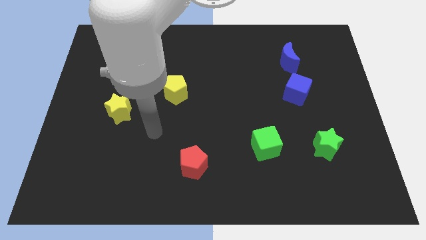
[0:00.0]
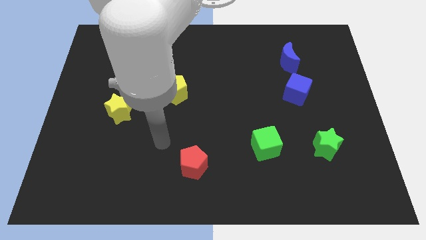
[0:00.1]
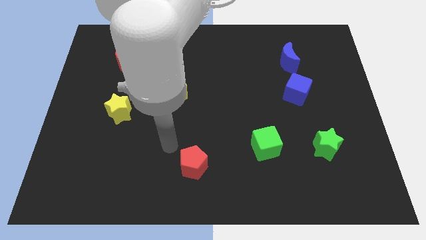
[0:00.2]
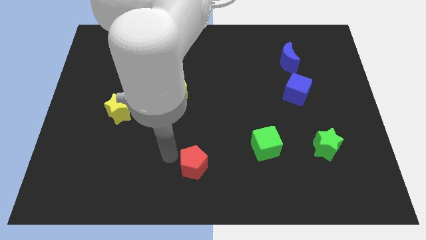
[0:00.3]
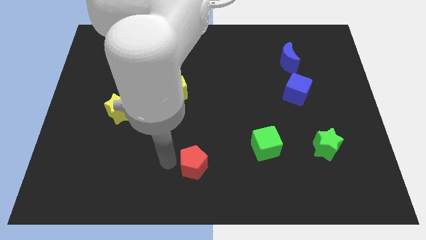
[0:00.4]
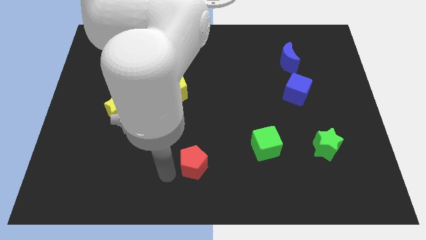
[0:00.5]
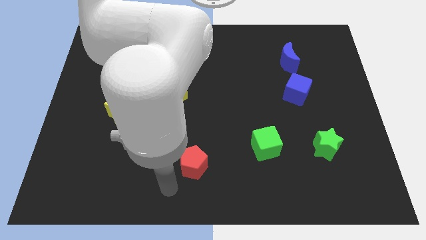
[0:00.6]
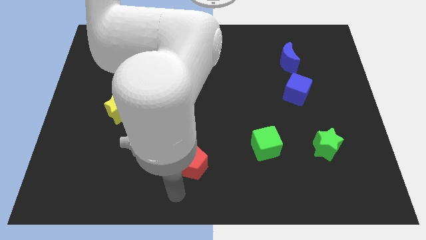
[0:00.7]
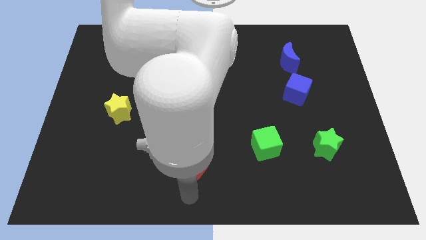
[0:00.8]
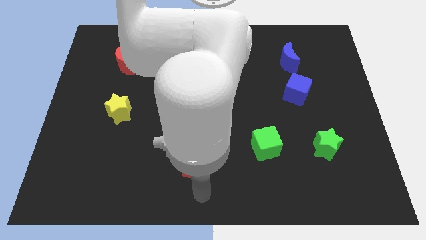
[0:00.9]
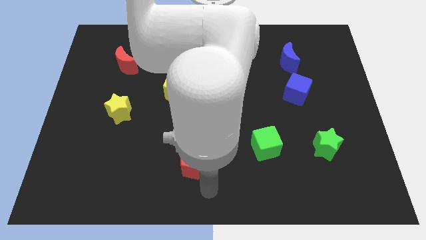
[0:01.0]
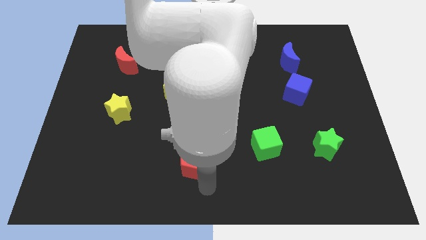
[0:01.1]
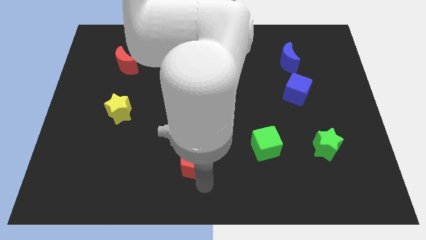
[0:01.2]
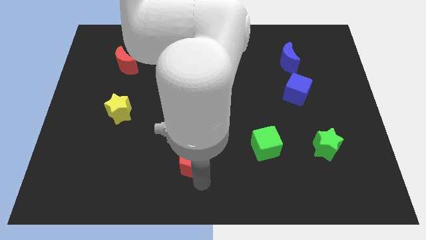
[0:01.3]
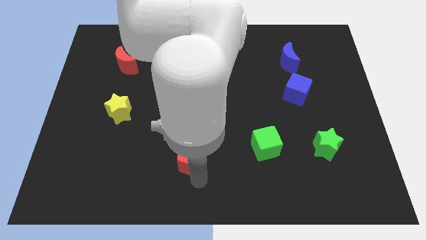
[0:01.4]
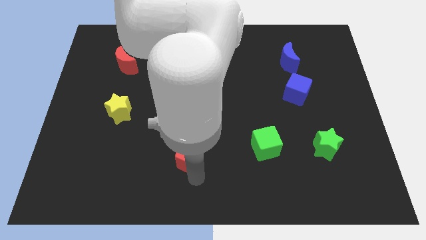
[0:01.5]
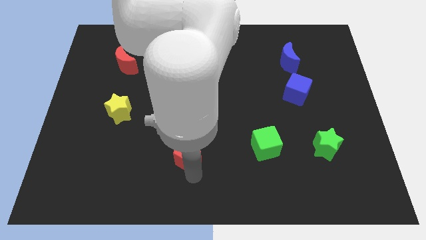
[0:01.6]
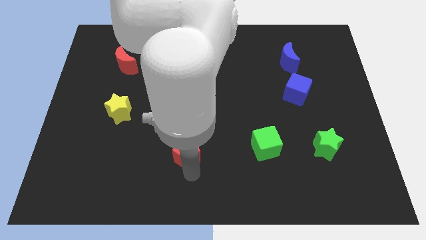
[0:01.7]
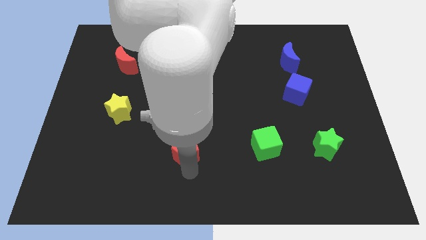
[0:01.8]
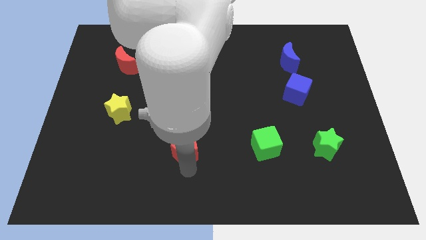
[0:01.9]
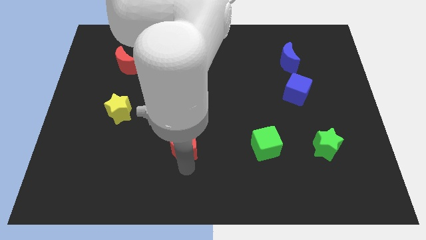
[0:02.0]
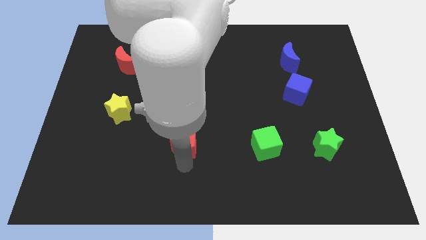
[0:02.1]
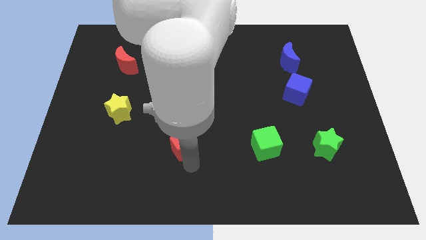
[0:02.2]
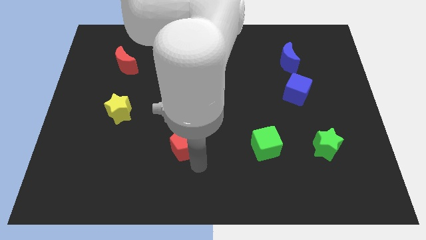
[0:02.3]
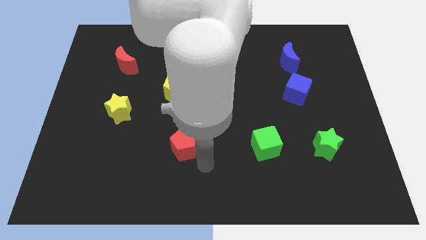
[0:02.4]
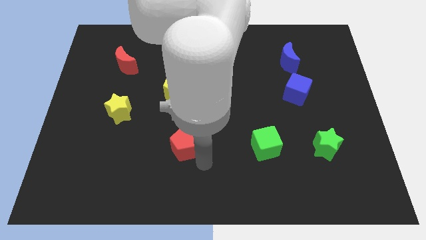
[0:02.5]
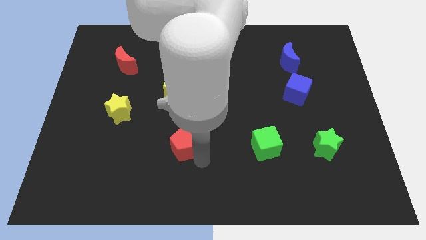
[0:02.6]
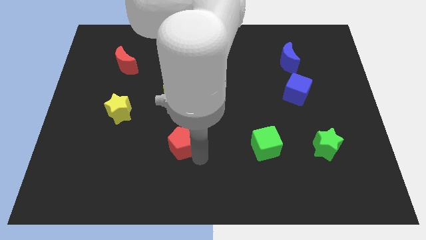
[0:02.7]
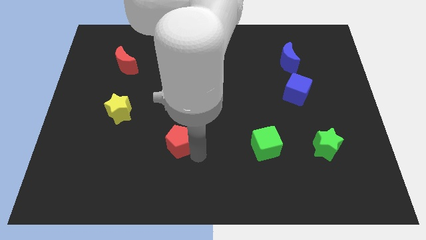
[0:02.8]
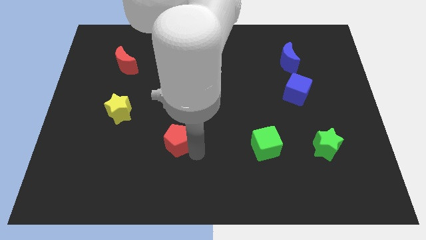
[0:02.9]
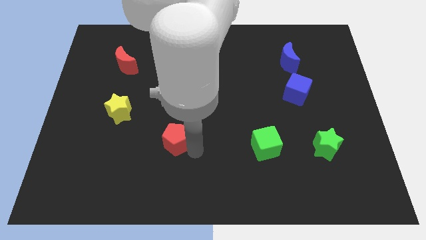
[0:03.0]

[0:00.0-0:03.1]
move the red pentagon upwards and left somewhat

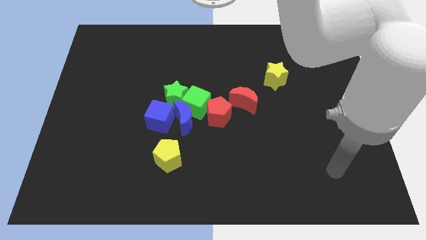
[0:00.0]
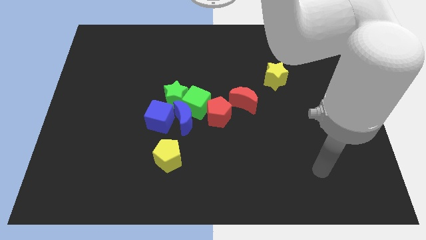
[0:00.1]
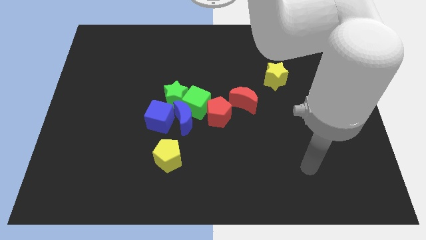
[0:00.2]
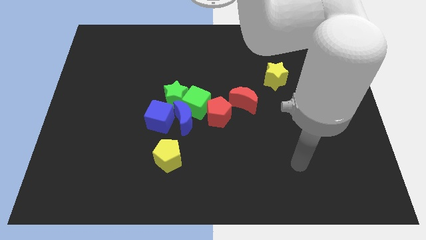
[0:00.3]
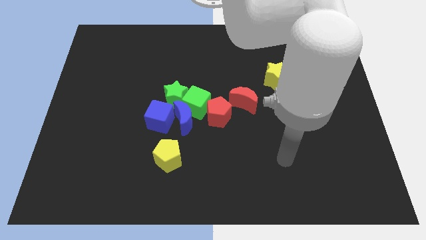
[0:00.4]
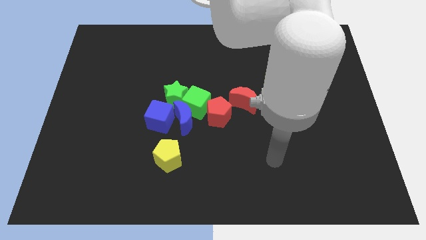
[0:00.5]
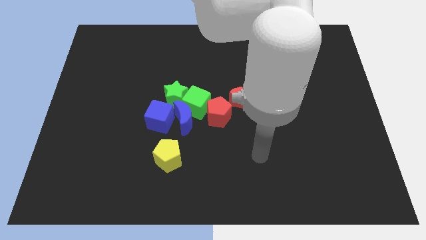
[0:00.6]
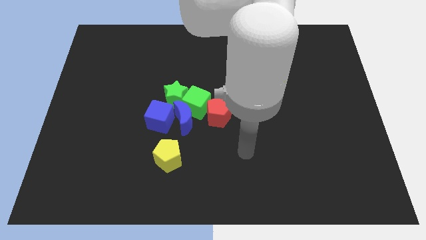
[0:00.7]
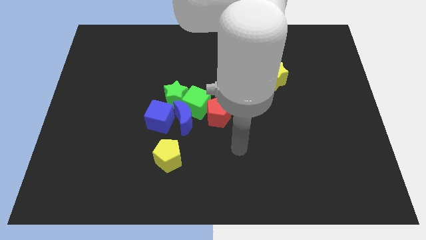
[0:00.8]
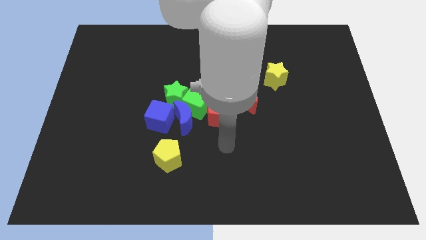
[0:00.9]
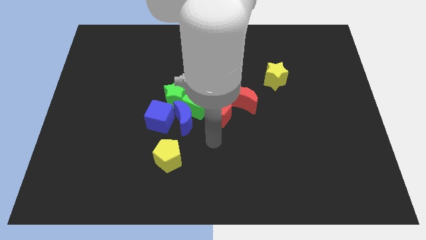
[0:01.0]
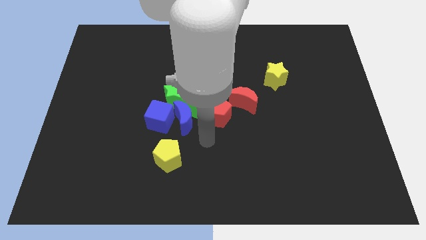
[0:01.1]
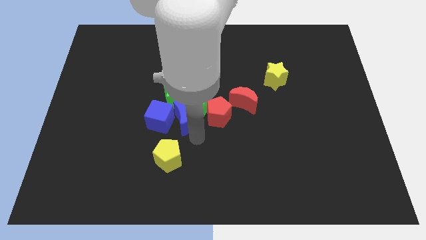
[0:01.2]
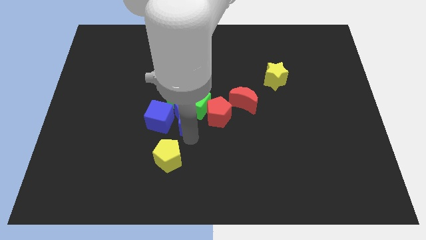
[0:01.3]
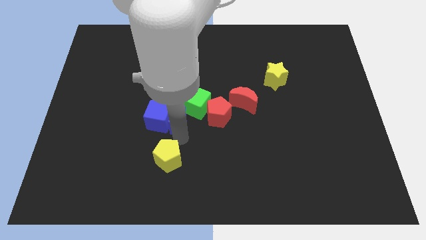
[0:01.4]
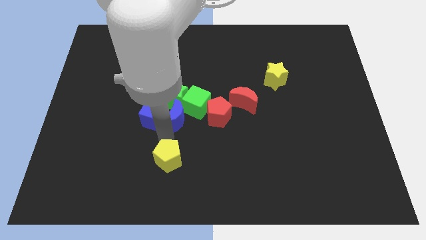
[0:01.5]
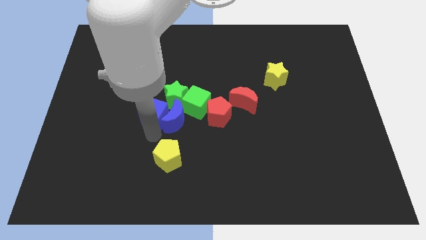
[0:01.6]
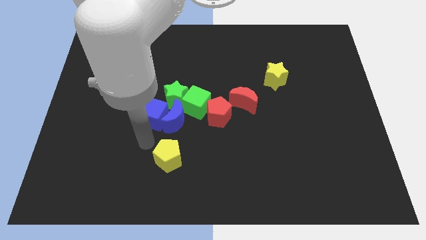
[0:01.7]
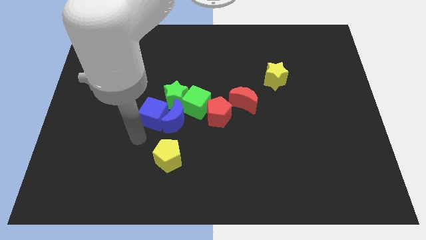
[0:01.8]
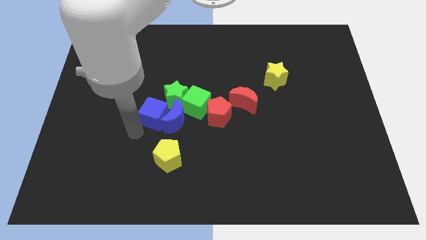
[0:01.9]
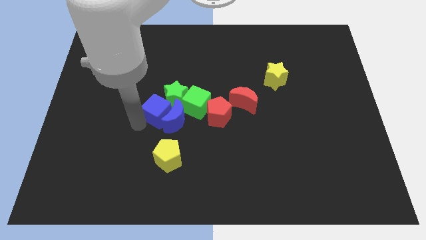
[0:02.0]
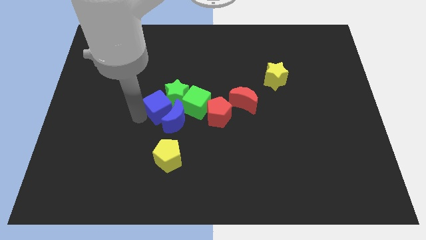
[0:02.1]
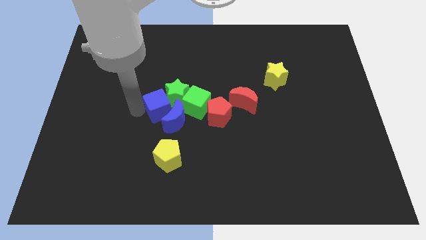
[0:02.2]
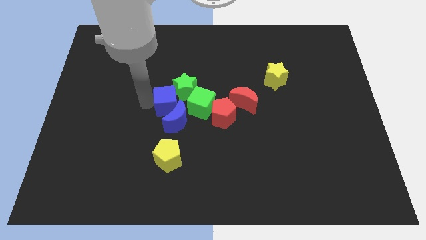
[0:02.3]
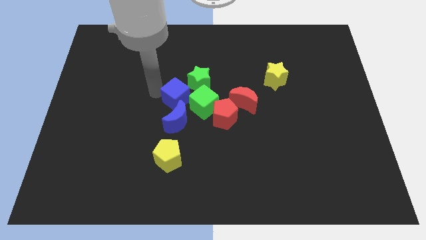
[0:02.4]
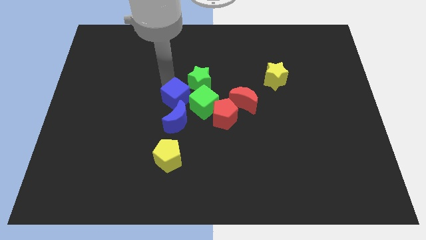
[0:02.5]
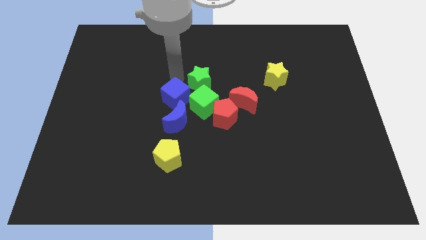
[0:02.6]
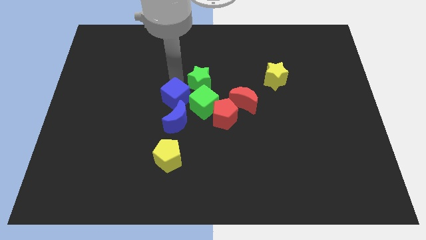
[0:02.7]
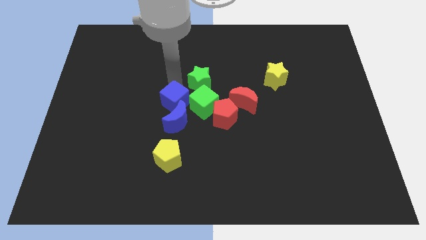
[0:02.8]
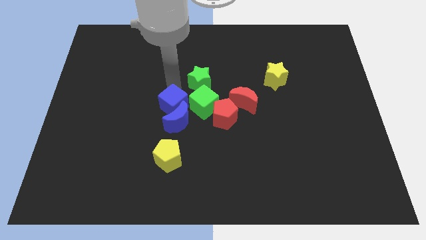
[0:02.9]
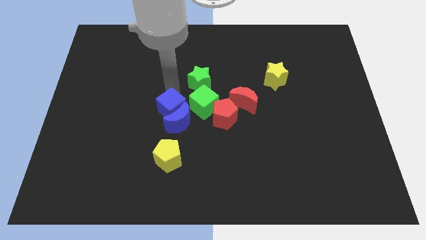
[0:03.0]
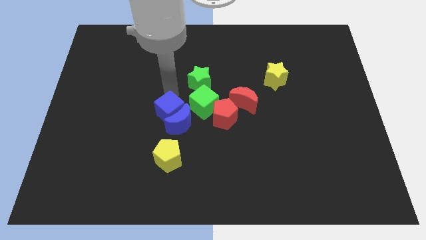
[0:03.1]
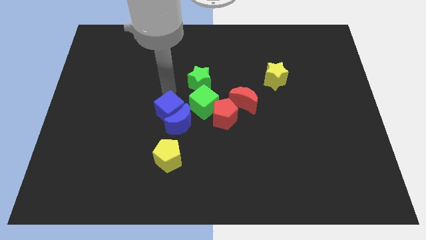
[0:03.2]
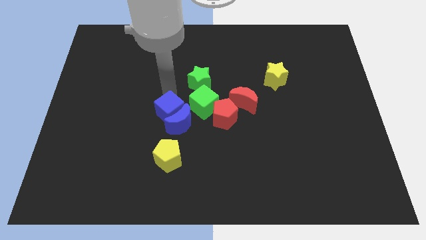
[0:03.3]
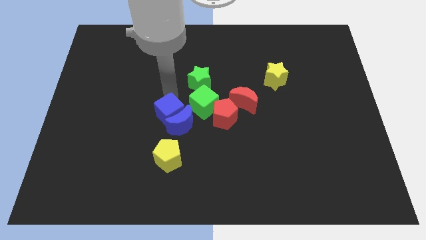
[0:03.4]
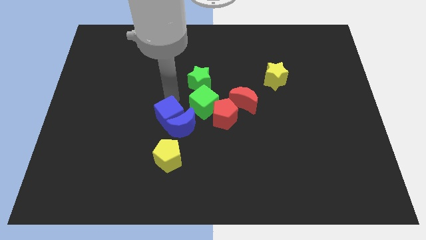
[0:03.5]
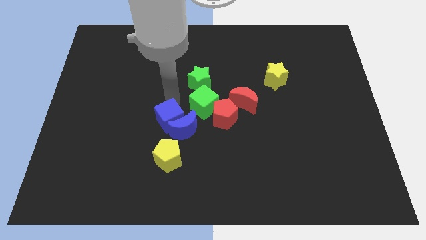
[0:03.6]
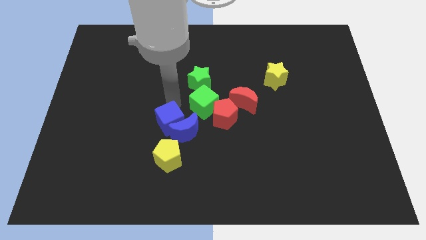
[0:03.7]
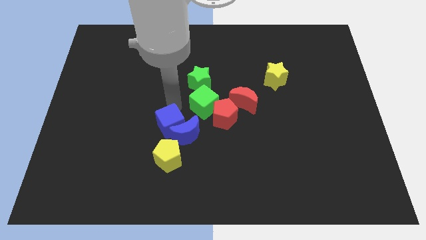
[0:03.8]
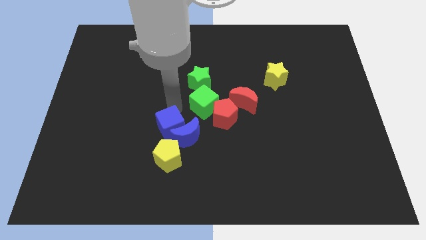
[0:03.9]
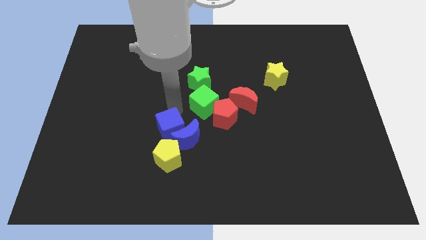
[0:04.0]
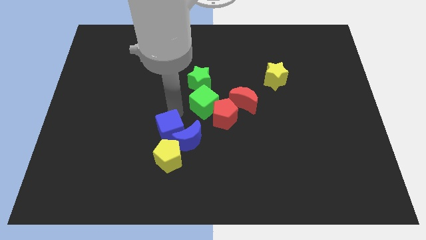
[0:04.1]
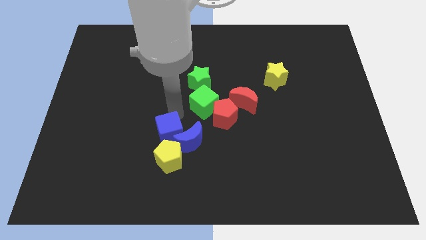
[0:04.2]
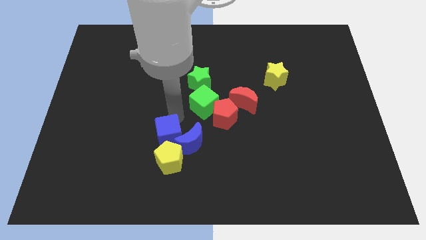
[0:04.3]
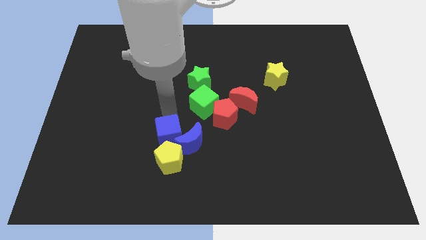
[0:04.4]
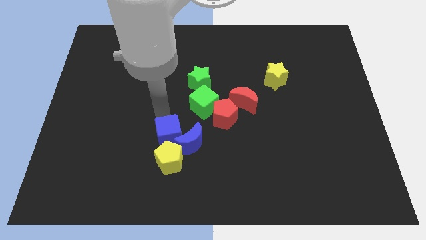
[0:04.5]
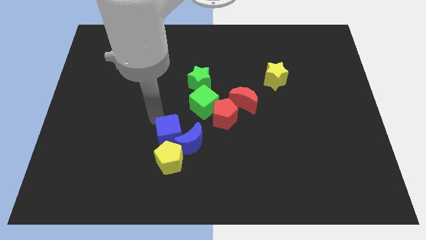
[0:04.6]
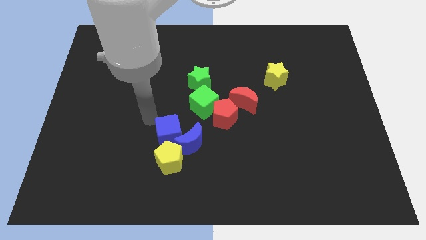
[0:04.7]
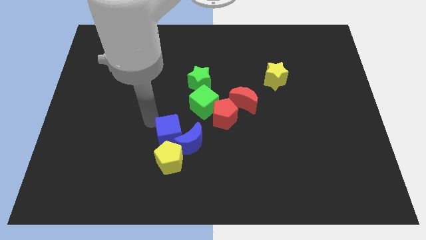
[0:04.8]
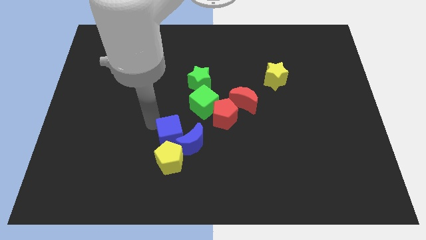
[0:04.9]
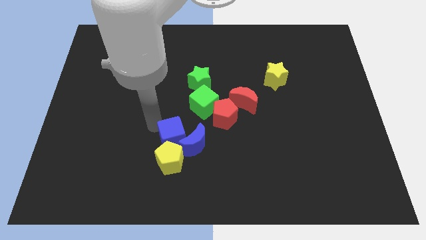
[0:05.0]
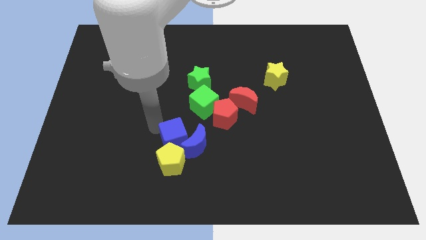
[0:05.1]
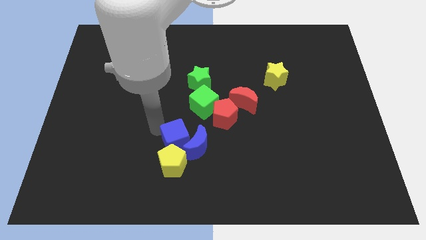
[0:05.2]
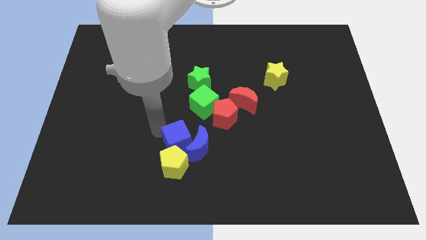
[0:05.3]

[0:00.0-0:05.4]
slightly move the blue cube down and then right
